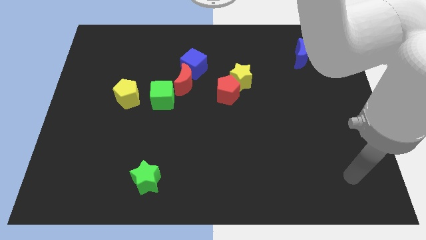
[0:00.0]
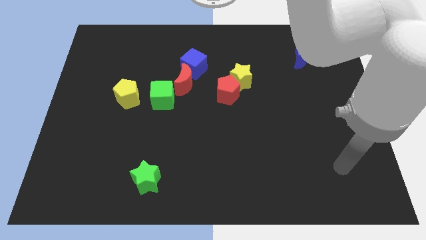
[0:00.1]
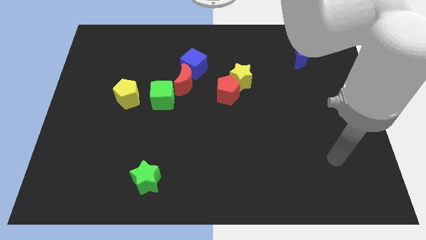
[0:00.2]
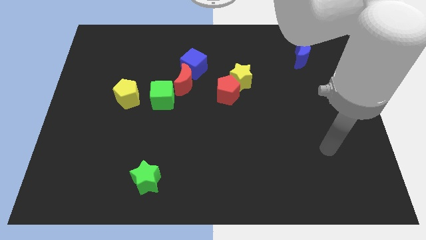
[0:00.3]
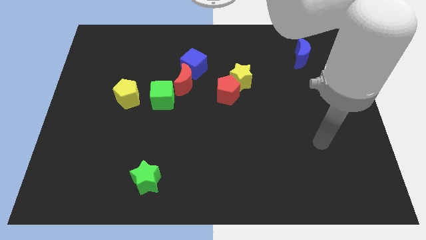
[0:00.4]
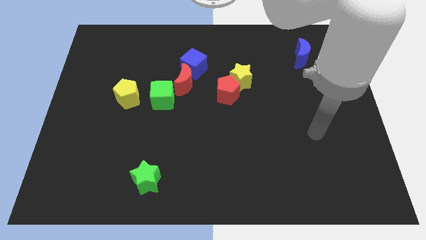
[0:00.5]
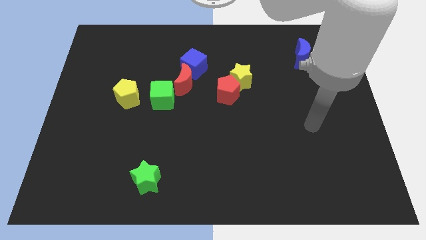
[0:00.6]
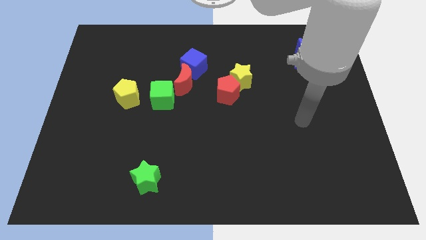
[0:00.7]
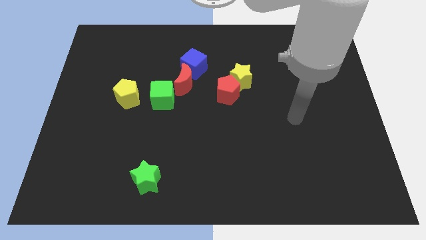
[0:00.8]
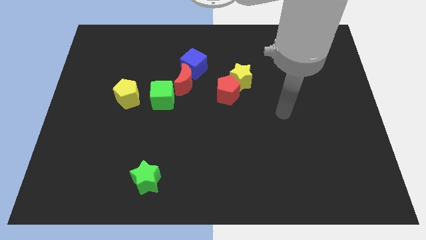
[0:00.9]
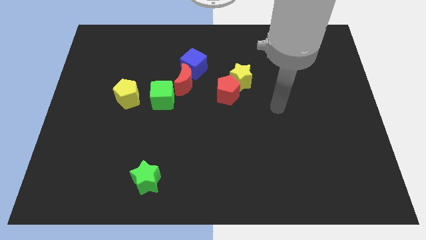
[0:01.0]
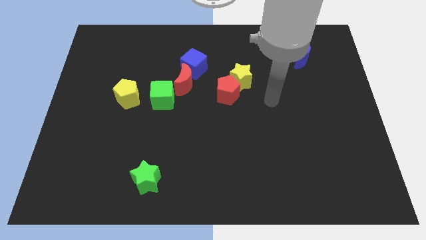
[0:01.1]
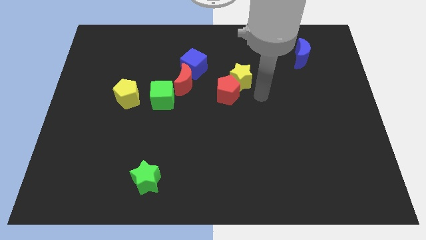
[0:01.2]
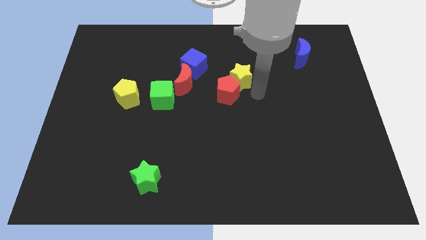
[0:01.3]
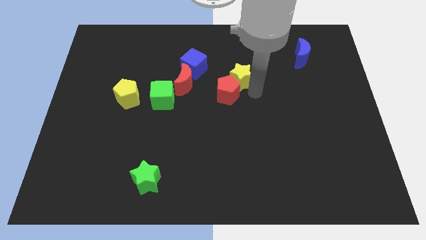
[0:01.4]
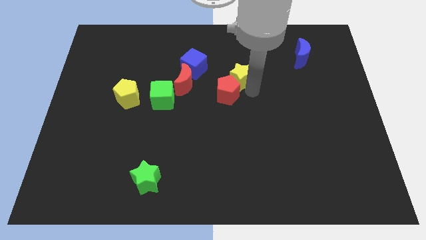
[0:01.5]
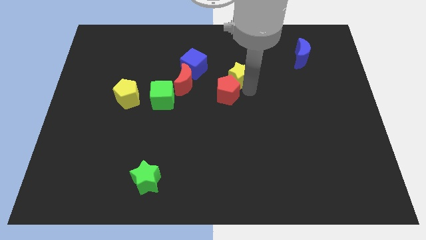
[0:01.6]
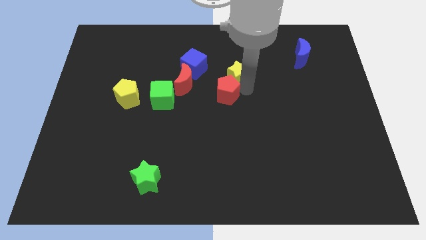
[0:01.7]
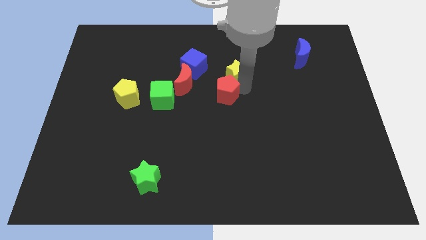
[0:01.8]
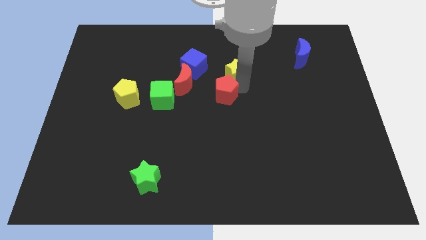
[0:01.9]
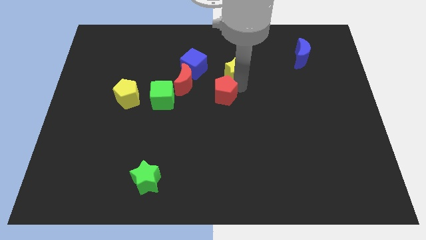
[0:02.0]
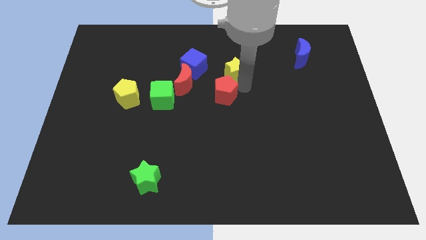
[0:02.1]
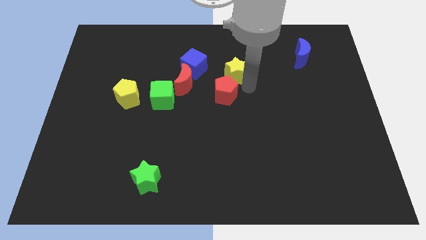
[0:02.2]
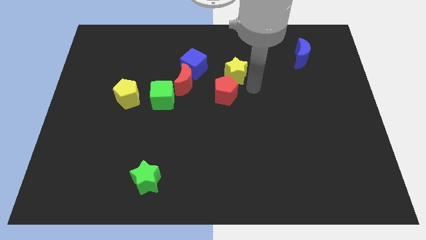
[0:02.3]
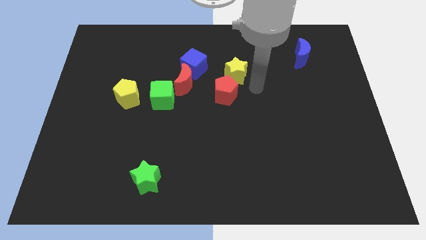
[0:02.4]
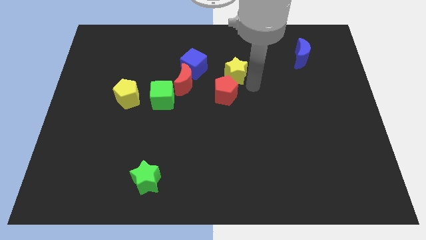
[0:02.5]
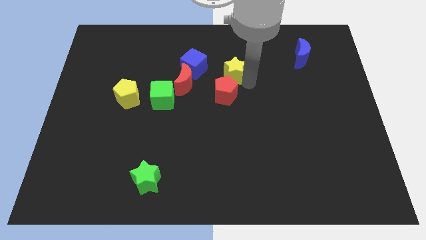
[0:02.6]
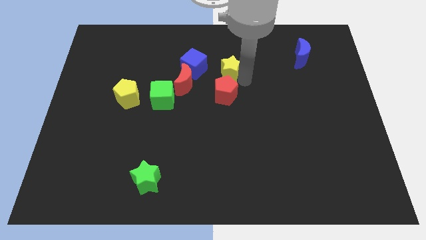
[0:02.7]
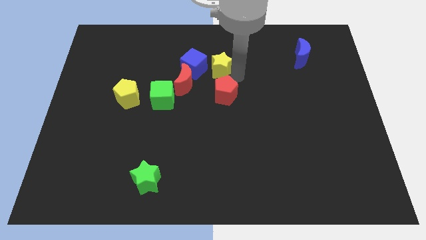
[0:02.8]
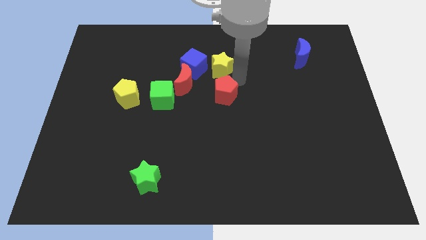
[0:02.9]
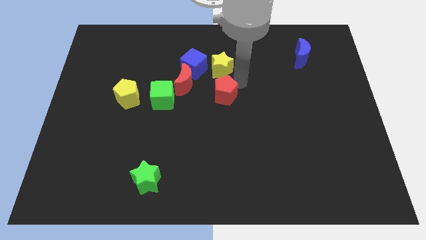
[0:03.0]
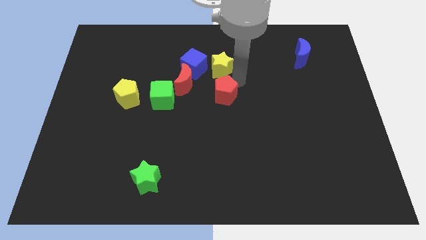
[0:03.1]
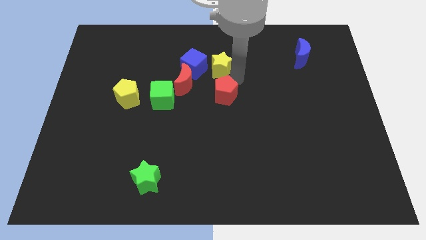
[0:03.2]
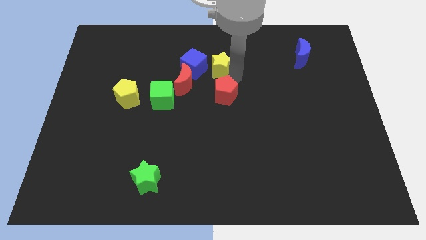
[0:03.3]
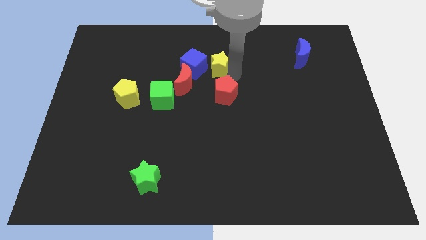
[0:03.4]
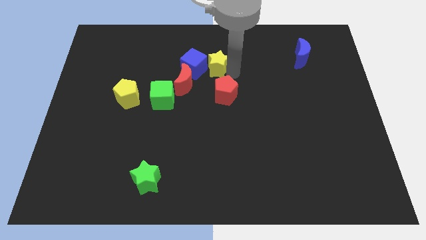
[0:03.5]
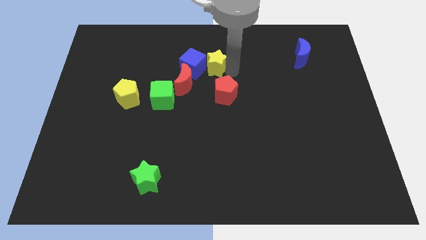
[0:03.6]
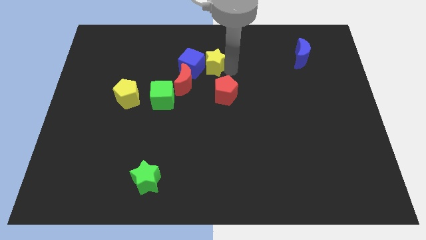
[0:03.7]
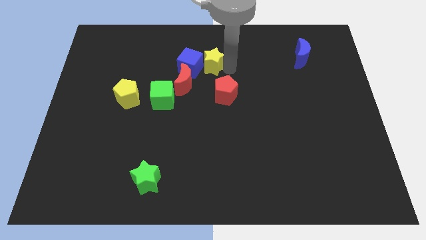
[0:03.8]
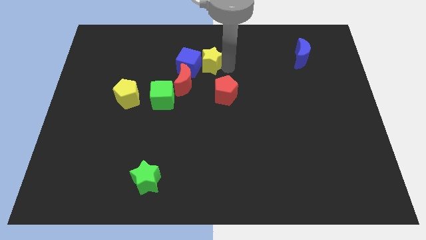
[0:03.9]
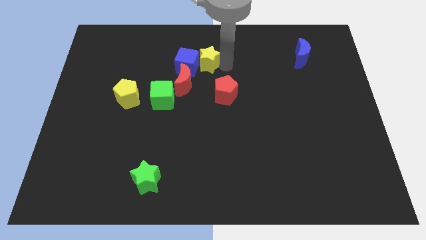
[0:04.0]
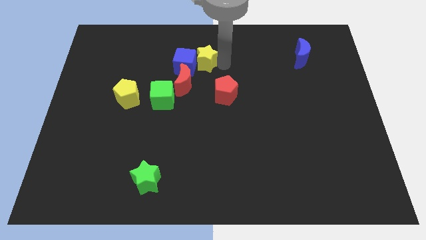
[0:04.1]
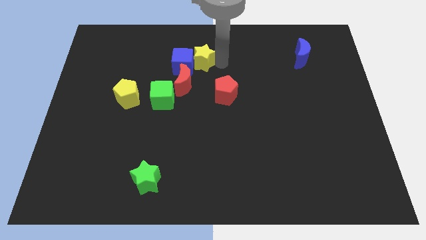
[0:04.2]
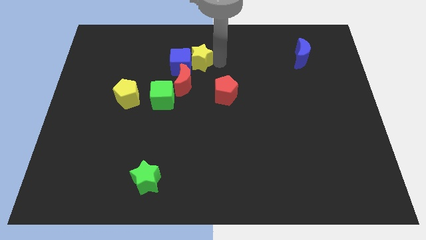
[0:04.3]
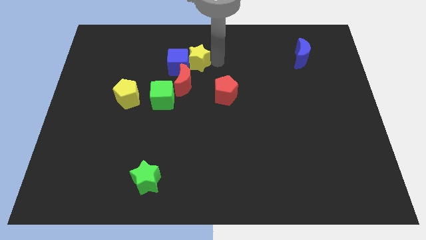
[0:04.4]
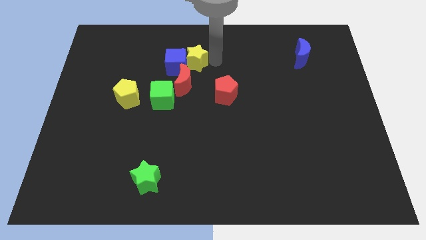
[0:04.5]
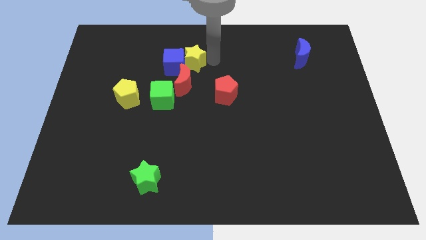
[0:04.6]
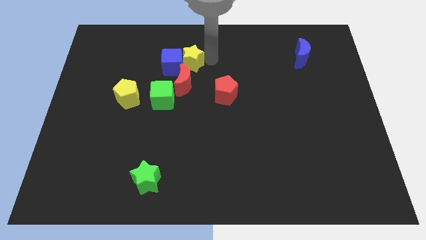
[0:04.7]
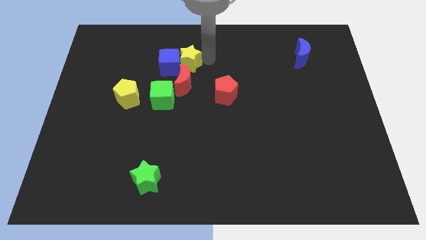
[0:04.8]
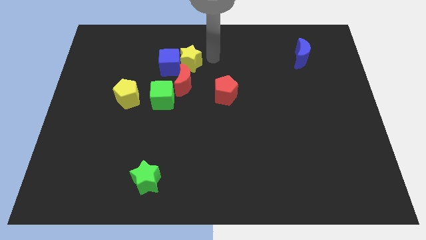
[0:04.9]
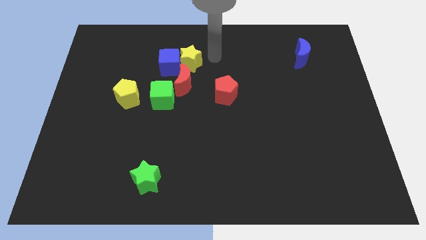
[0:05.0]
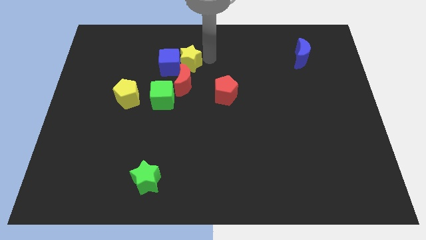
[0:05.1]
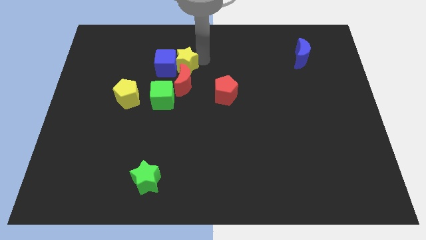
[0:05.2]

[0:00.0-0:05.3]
push the yellow star diagonally up and to the left of the red moon

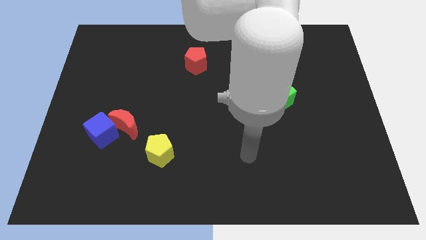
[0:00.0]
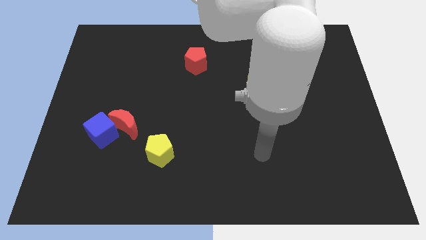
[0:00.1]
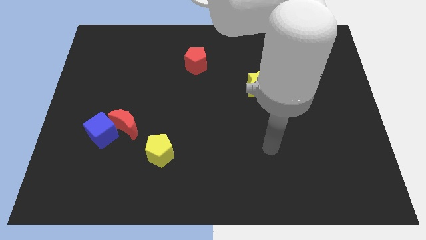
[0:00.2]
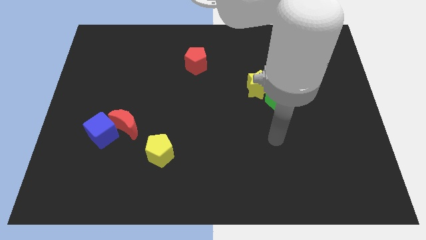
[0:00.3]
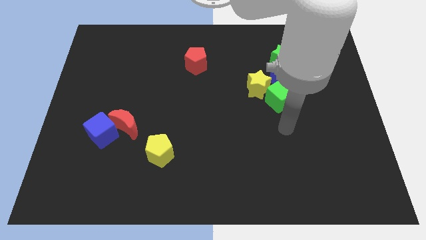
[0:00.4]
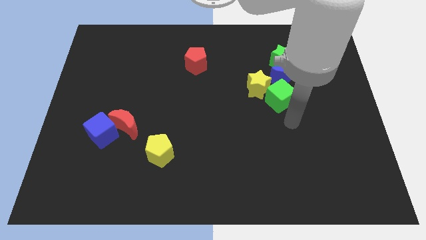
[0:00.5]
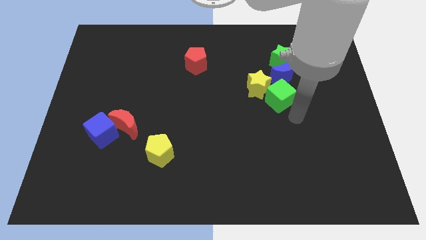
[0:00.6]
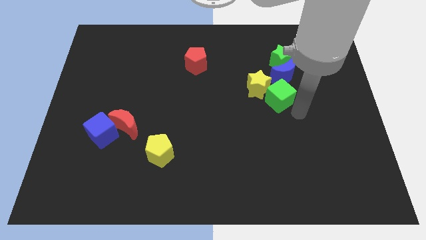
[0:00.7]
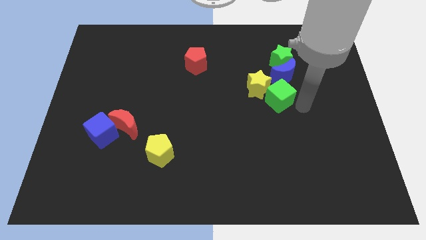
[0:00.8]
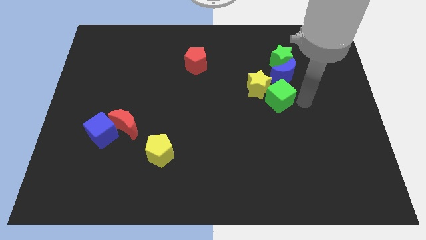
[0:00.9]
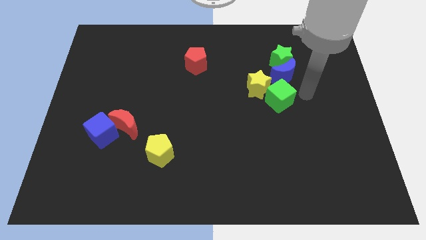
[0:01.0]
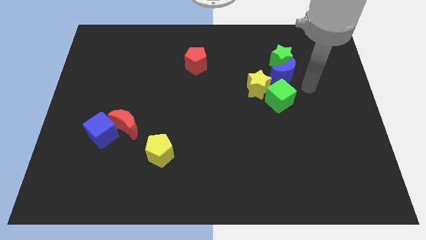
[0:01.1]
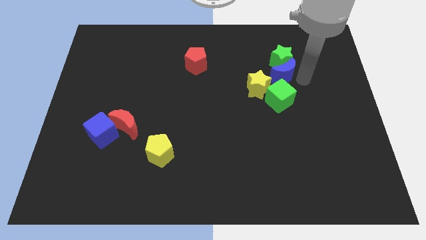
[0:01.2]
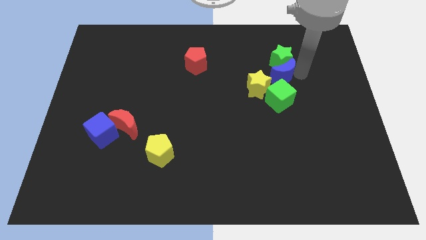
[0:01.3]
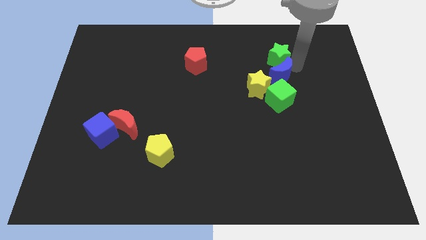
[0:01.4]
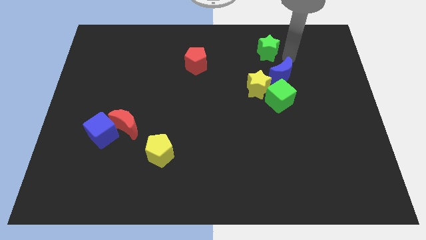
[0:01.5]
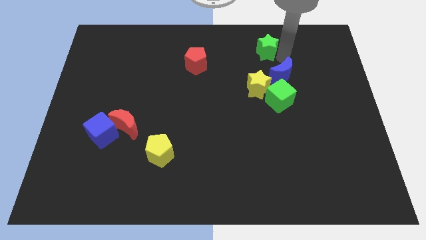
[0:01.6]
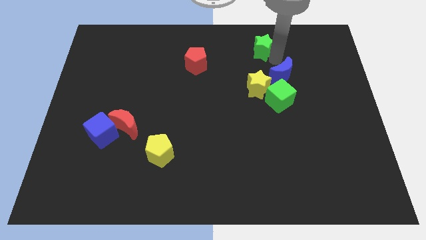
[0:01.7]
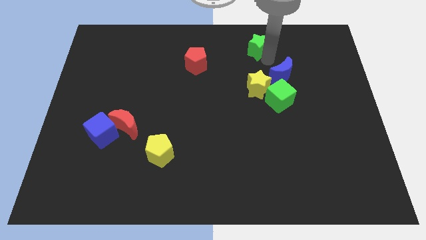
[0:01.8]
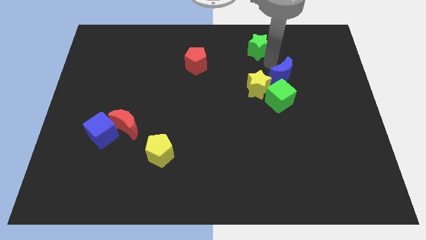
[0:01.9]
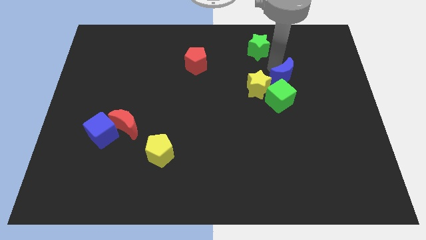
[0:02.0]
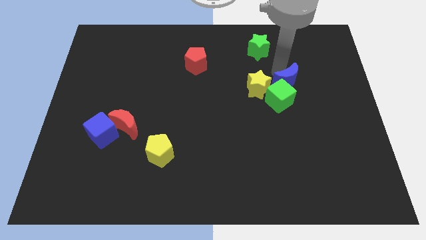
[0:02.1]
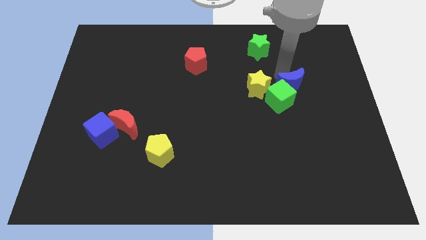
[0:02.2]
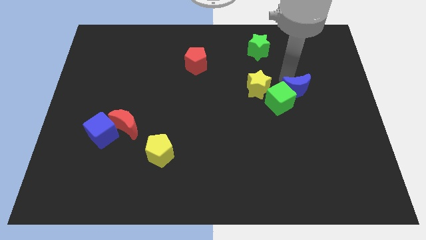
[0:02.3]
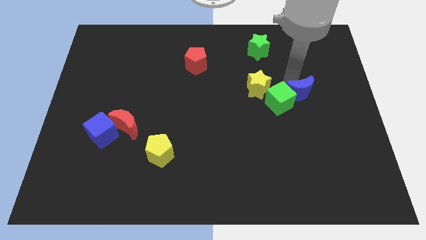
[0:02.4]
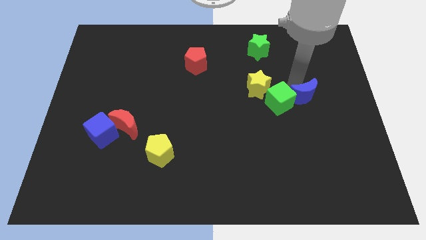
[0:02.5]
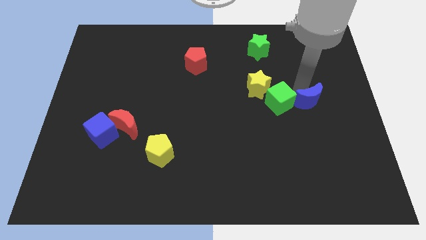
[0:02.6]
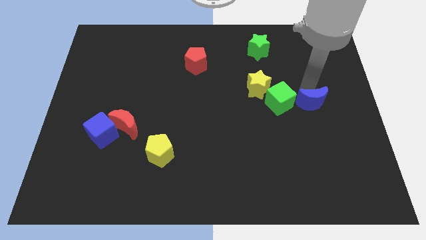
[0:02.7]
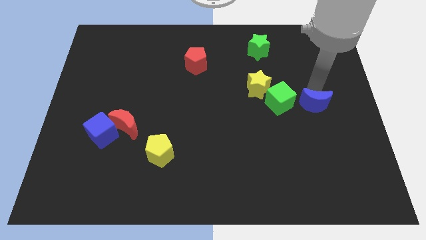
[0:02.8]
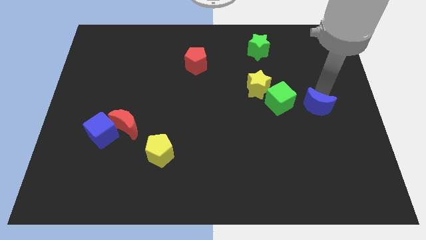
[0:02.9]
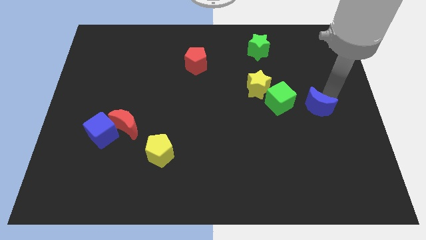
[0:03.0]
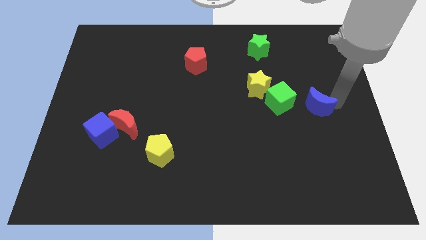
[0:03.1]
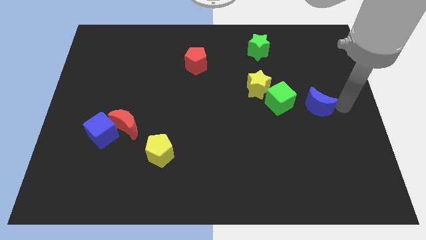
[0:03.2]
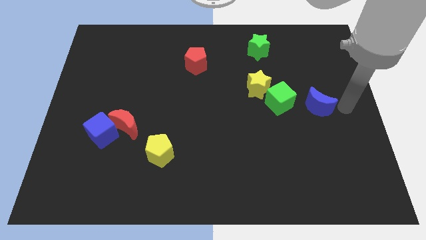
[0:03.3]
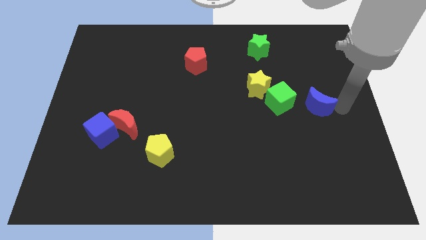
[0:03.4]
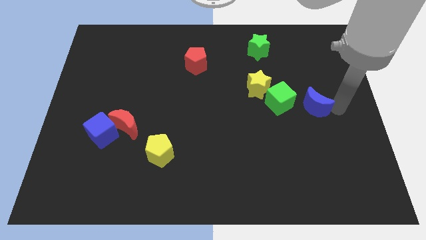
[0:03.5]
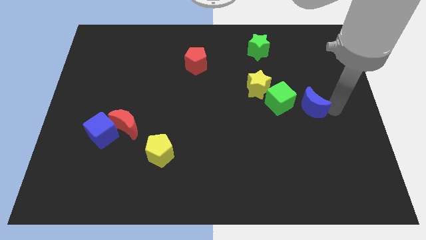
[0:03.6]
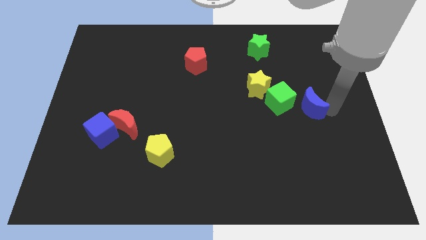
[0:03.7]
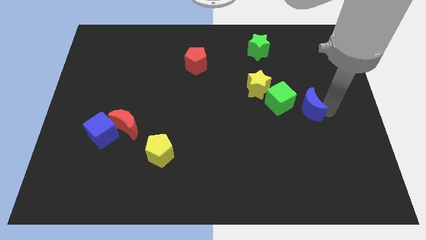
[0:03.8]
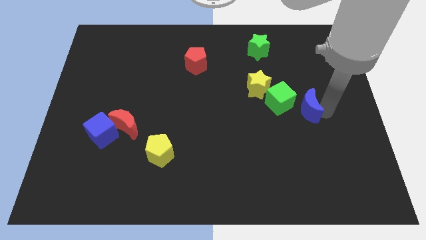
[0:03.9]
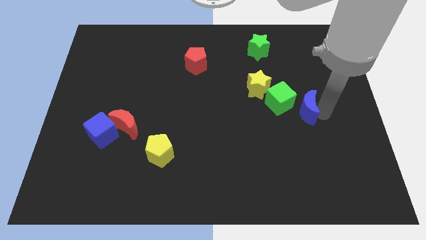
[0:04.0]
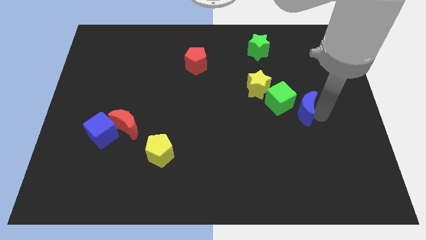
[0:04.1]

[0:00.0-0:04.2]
push the blue moon to the bottom right side of the yellow star
